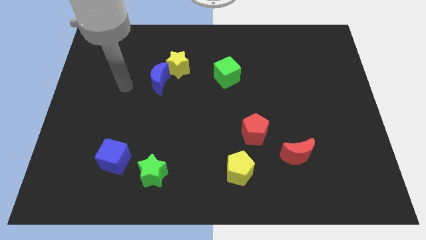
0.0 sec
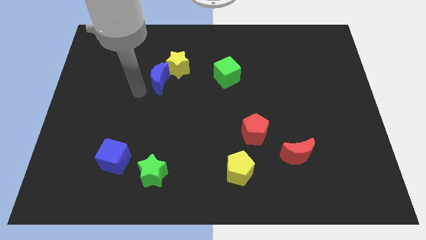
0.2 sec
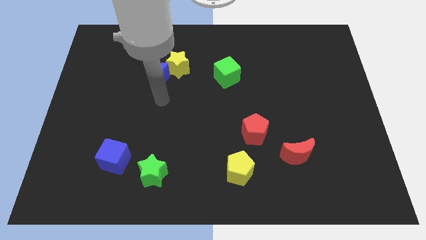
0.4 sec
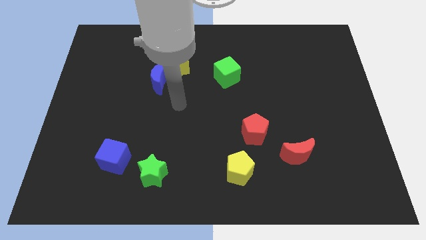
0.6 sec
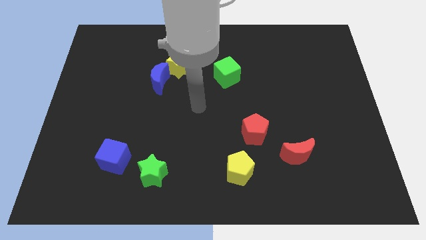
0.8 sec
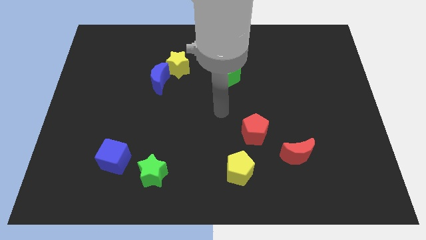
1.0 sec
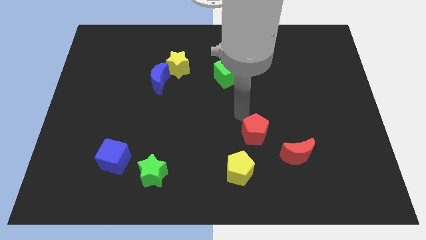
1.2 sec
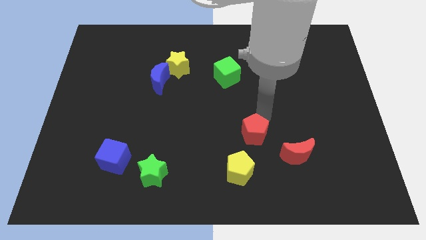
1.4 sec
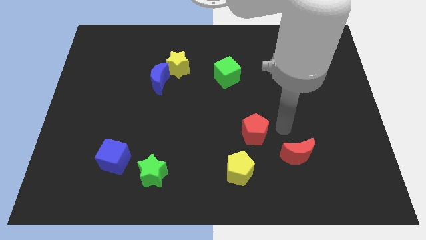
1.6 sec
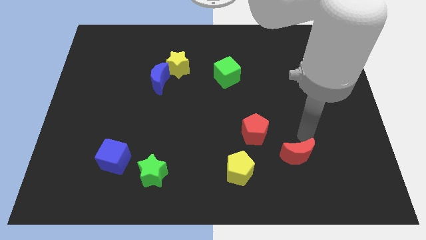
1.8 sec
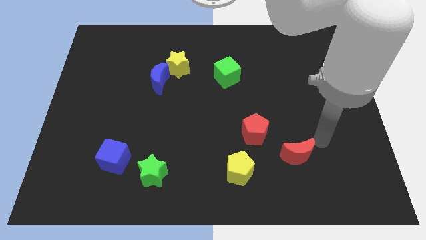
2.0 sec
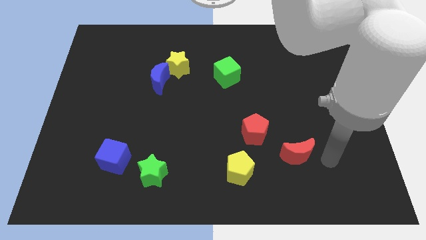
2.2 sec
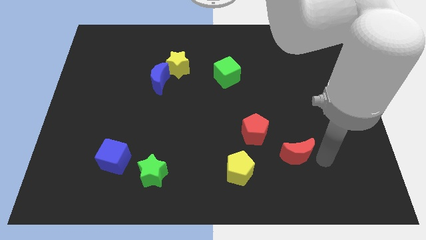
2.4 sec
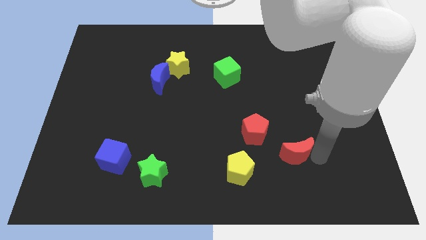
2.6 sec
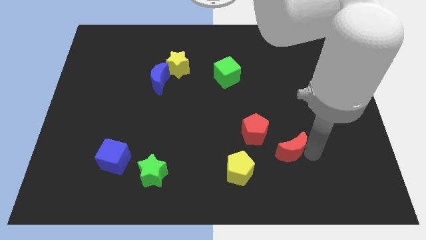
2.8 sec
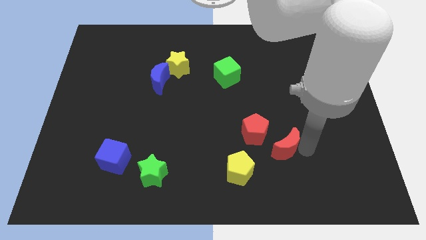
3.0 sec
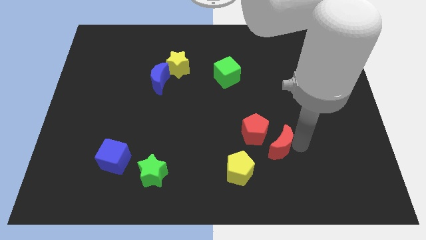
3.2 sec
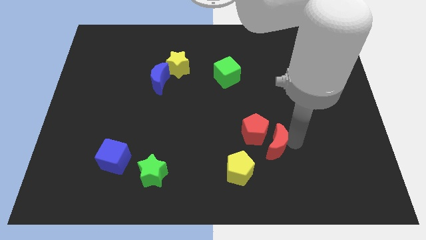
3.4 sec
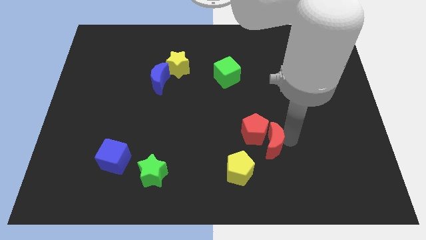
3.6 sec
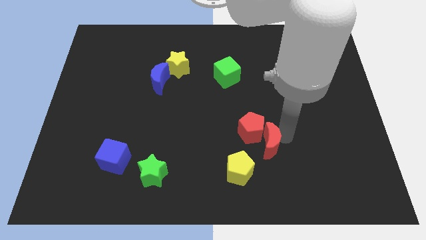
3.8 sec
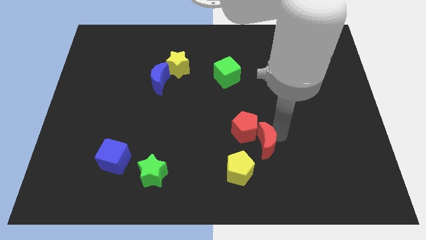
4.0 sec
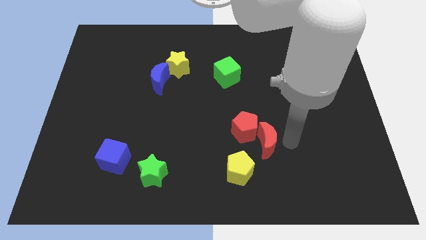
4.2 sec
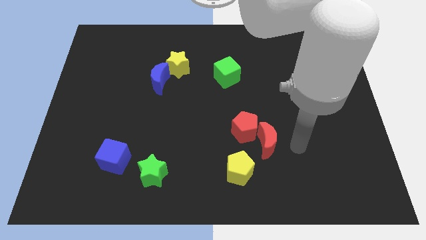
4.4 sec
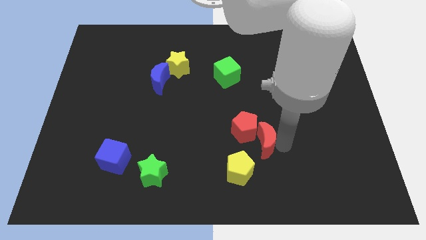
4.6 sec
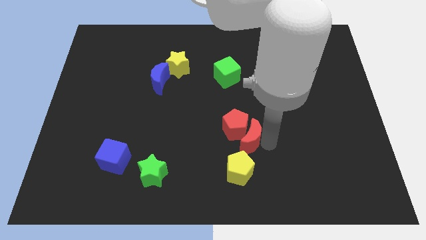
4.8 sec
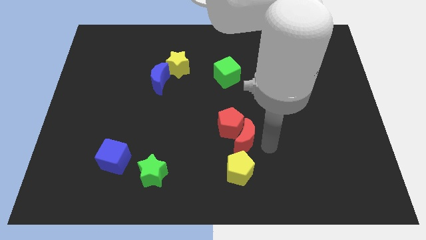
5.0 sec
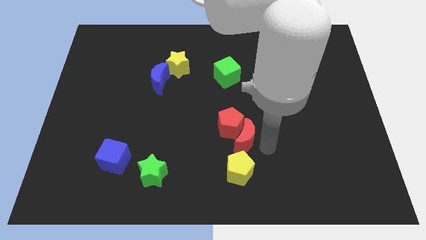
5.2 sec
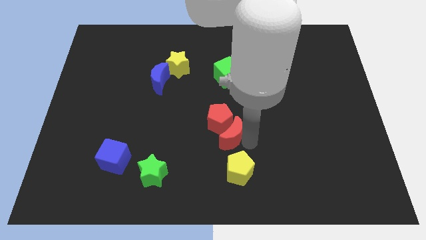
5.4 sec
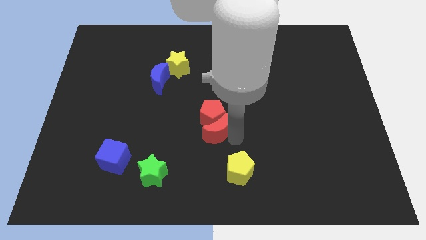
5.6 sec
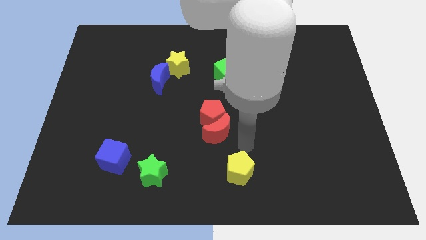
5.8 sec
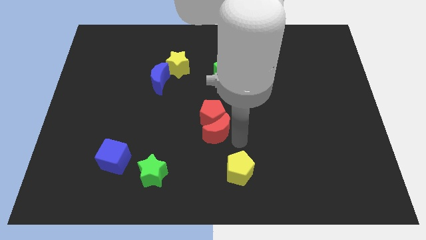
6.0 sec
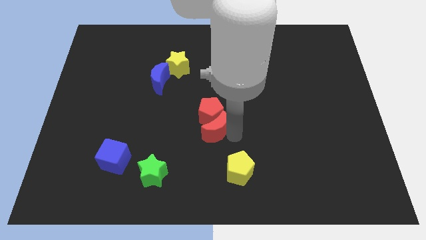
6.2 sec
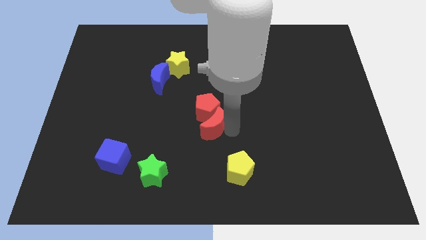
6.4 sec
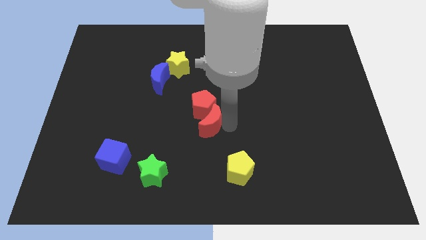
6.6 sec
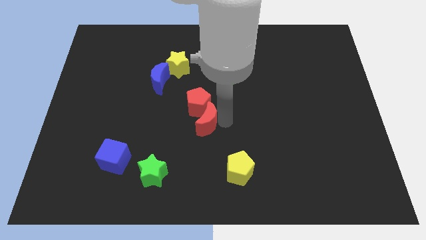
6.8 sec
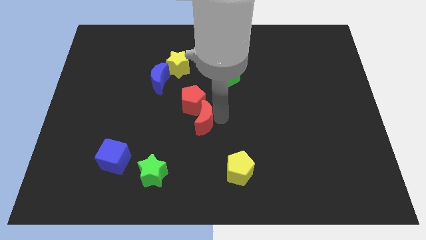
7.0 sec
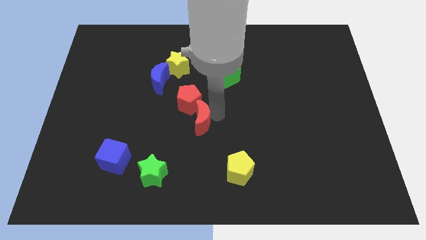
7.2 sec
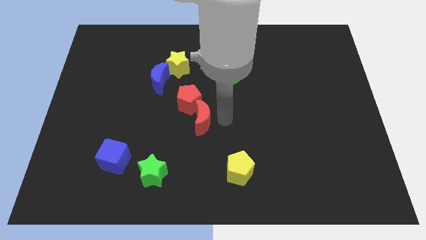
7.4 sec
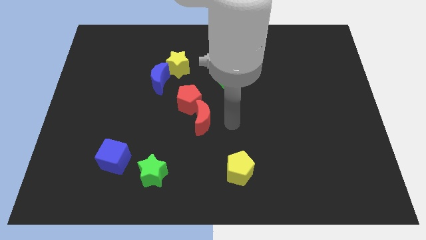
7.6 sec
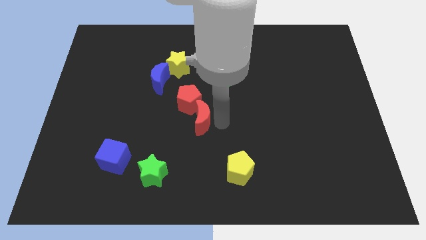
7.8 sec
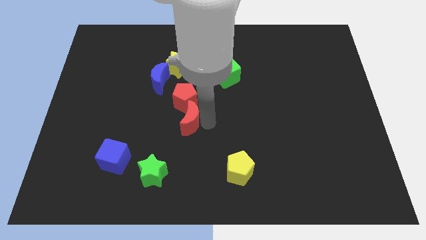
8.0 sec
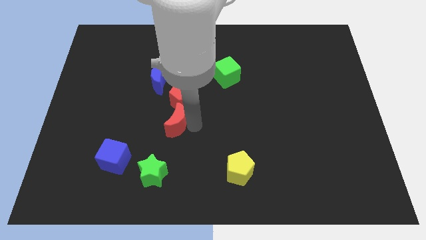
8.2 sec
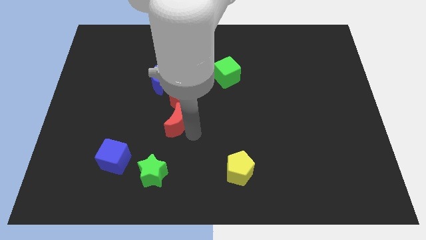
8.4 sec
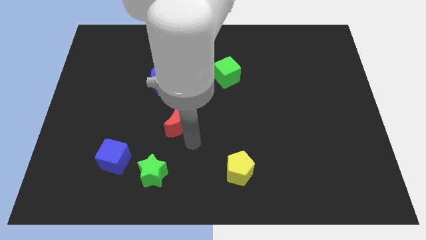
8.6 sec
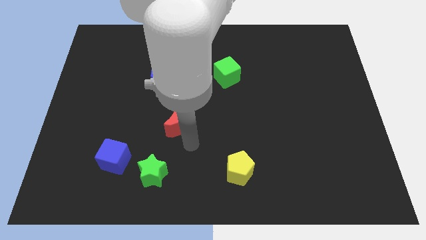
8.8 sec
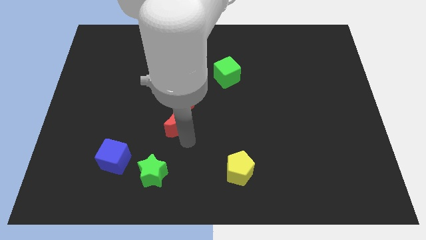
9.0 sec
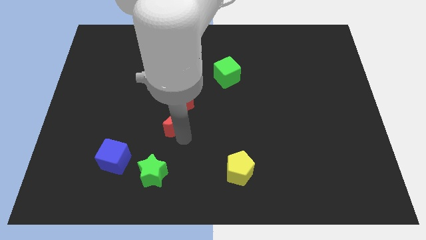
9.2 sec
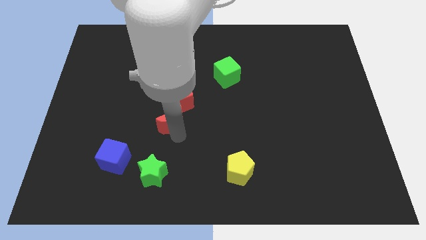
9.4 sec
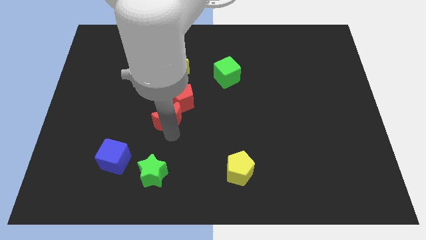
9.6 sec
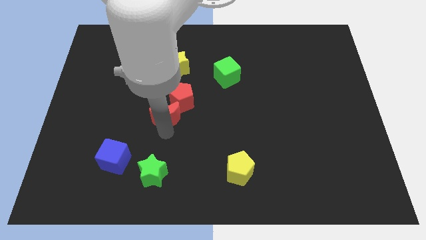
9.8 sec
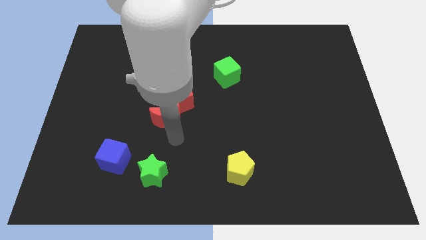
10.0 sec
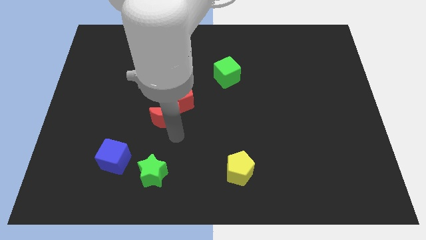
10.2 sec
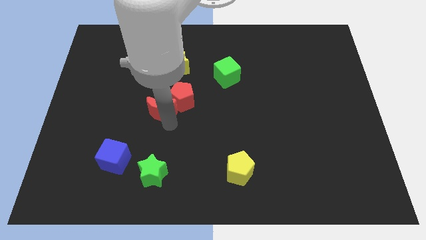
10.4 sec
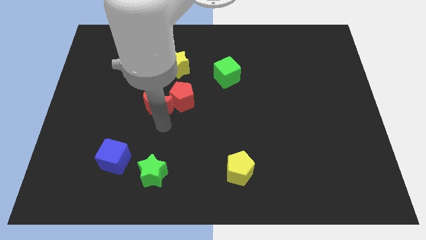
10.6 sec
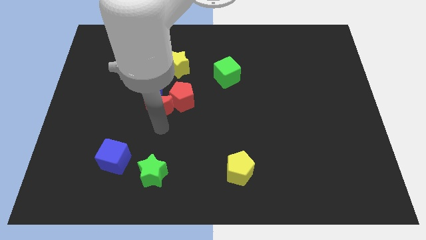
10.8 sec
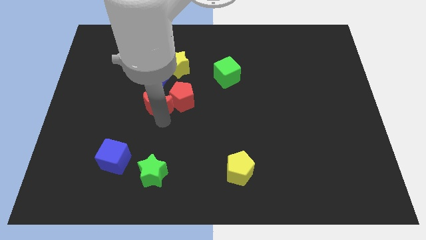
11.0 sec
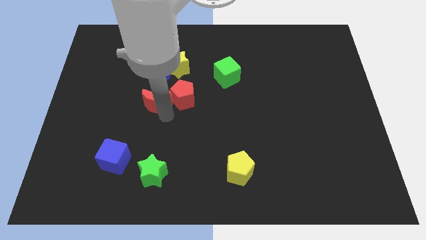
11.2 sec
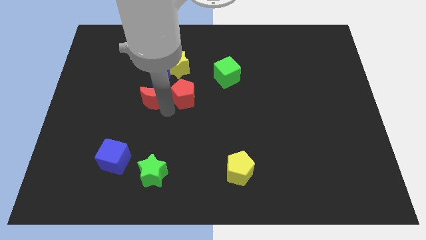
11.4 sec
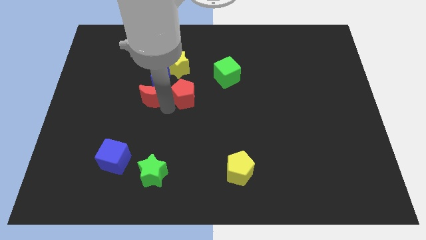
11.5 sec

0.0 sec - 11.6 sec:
put the red moon to the bottom left of the yellow star

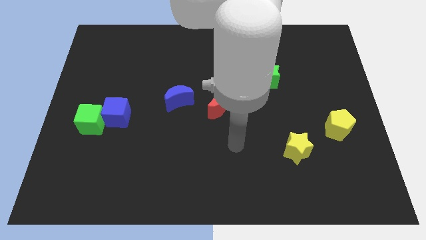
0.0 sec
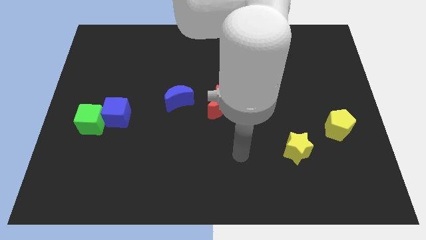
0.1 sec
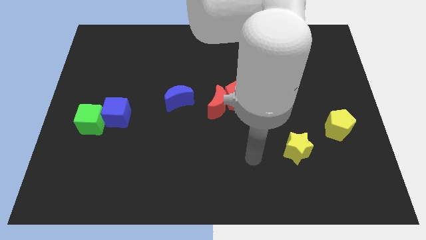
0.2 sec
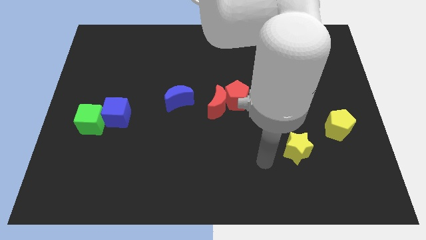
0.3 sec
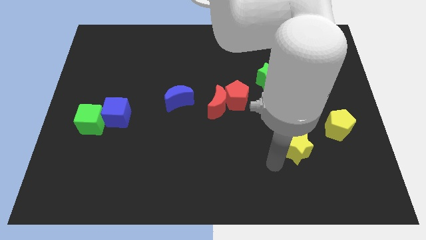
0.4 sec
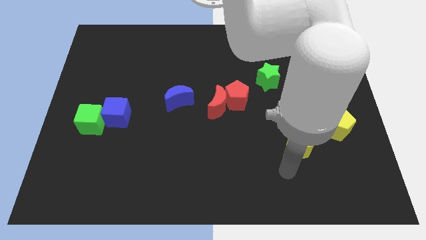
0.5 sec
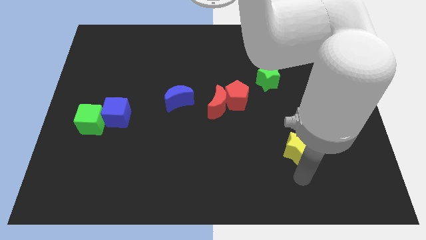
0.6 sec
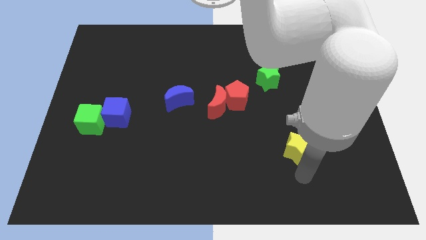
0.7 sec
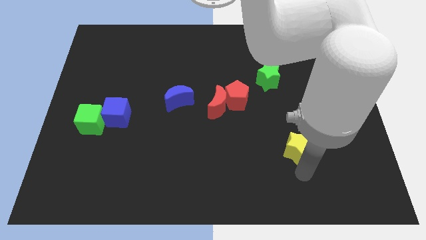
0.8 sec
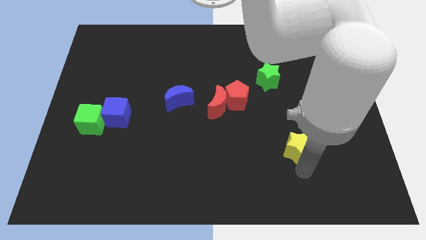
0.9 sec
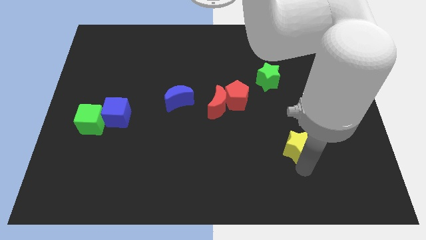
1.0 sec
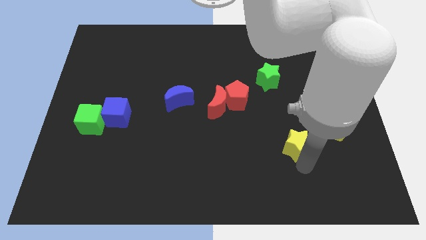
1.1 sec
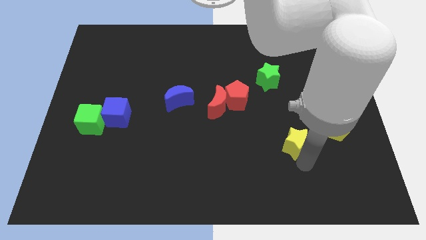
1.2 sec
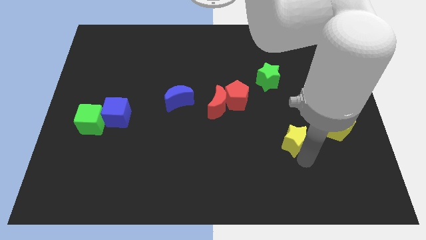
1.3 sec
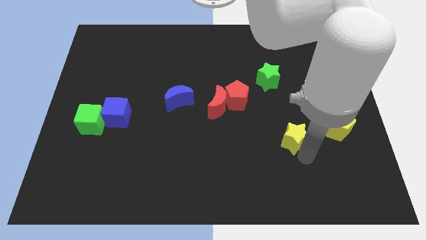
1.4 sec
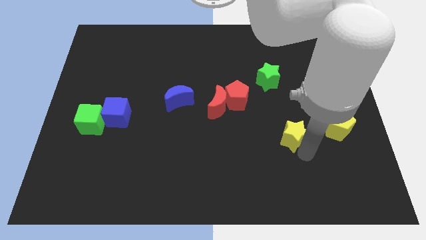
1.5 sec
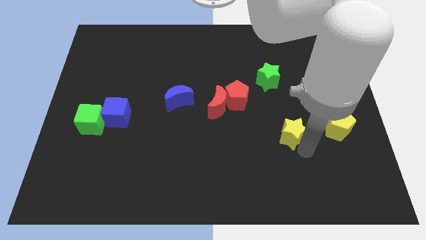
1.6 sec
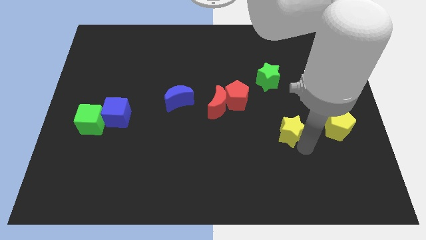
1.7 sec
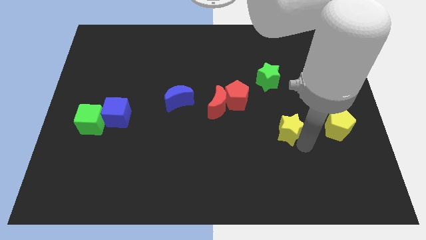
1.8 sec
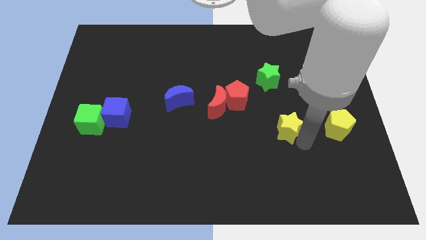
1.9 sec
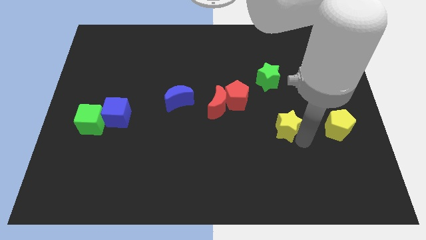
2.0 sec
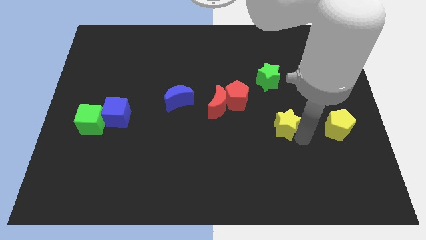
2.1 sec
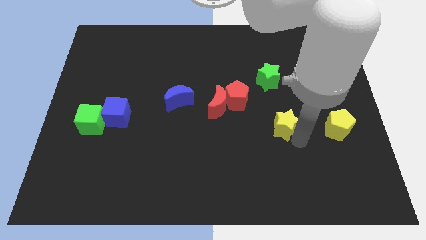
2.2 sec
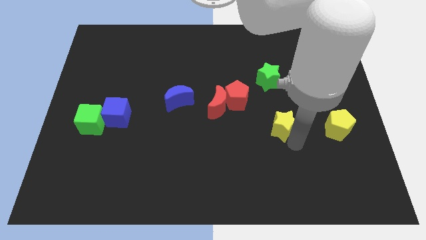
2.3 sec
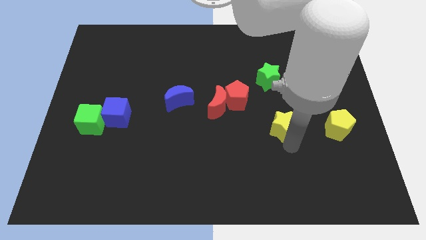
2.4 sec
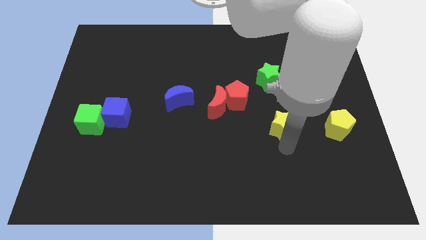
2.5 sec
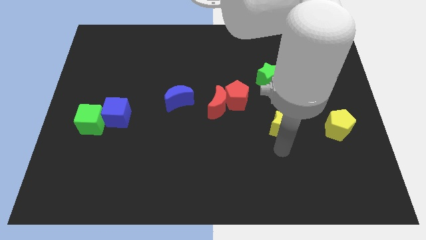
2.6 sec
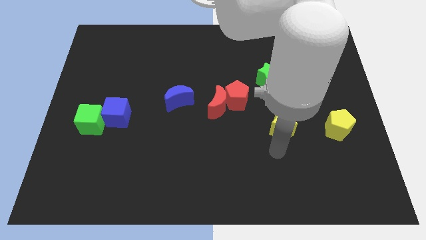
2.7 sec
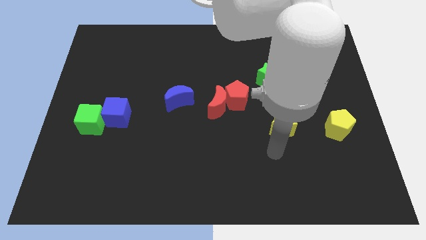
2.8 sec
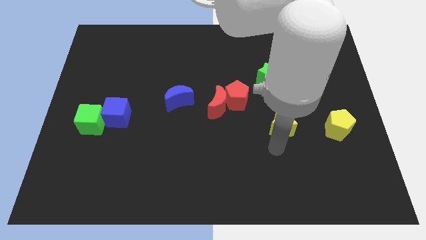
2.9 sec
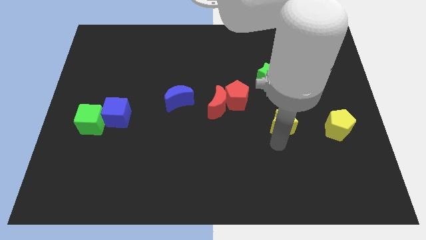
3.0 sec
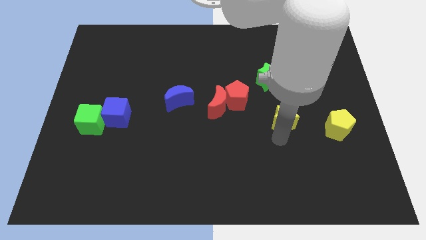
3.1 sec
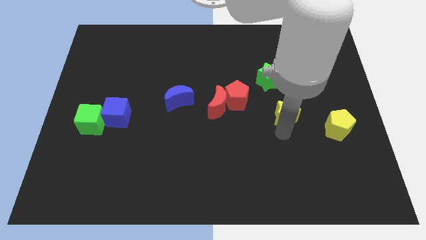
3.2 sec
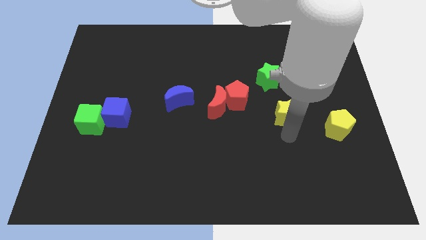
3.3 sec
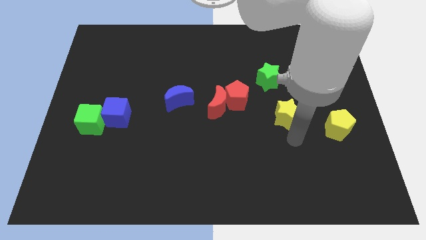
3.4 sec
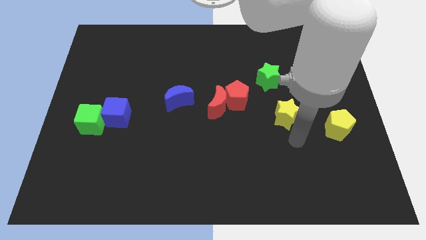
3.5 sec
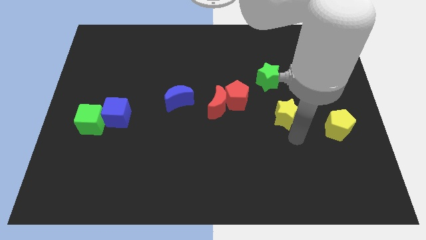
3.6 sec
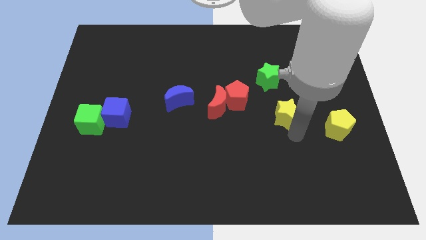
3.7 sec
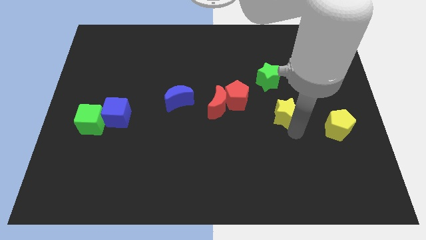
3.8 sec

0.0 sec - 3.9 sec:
slide the yellow star just right of the red pentagon
